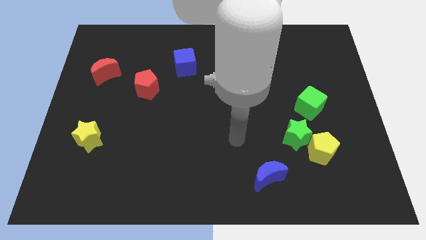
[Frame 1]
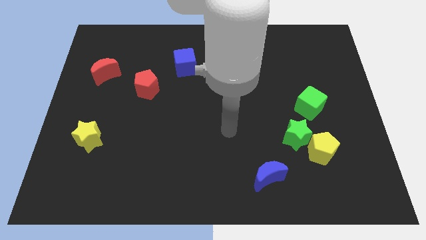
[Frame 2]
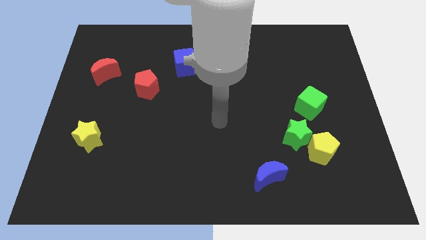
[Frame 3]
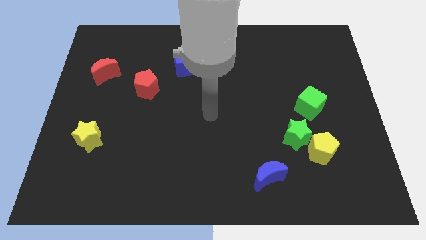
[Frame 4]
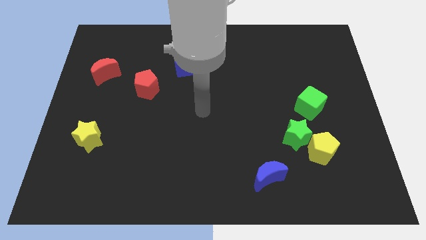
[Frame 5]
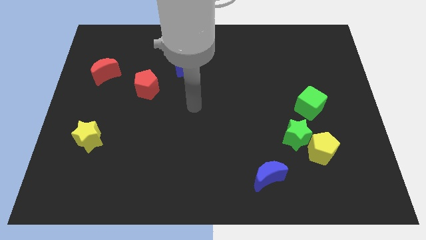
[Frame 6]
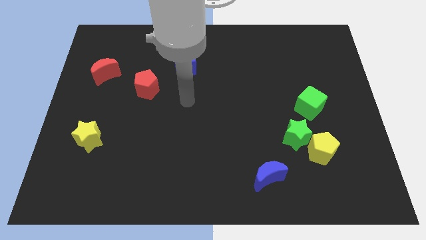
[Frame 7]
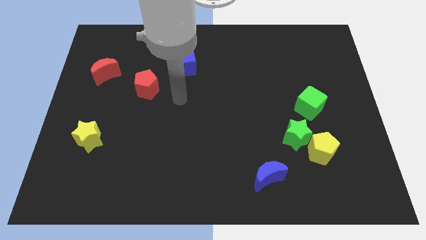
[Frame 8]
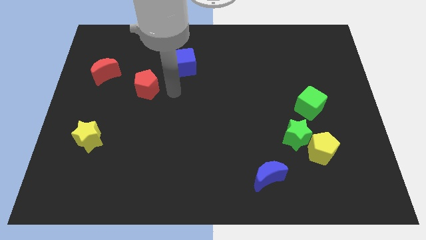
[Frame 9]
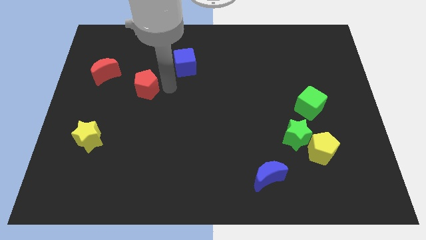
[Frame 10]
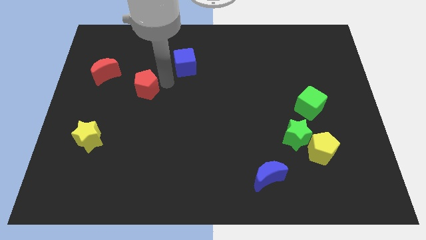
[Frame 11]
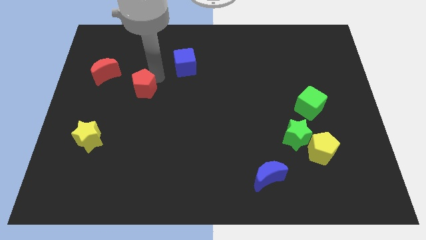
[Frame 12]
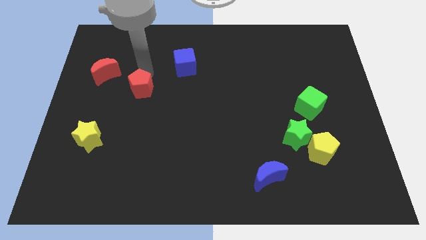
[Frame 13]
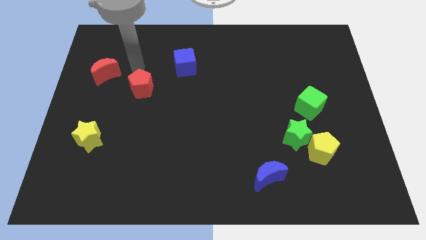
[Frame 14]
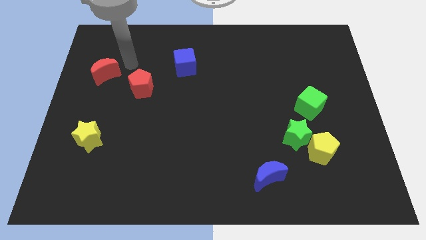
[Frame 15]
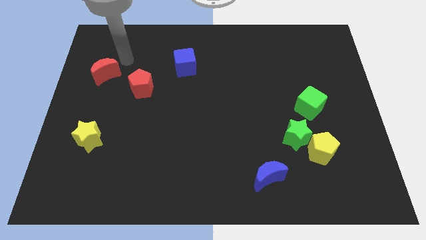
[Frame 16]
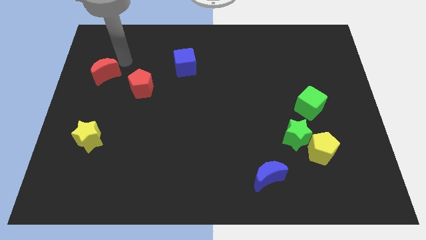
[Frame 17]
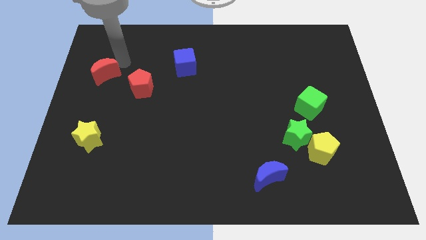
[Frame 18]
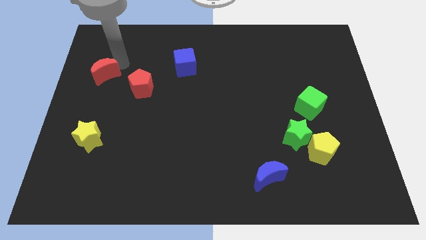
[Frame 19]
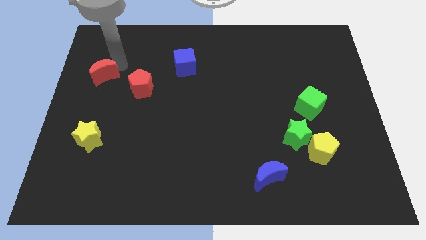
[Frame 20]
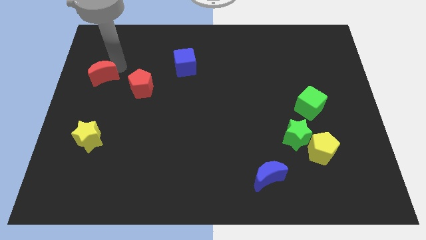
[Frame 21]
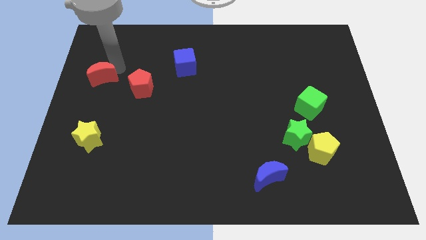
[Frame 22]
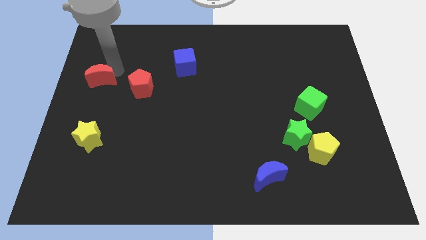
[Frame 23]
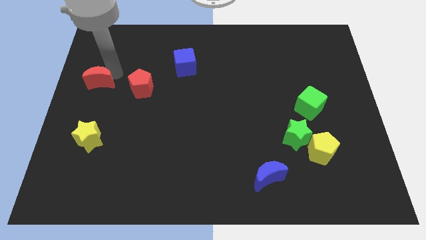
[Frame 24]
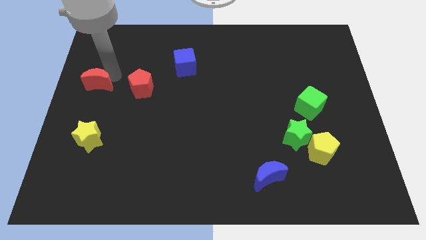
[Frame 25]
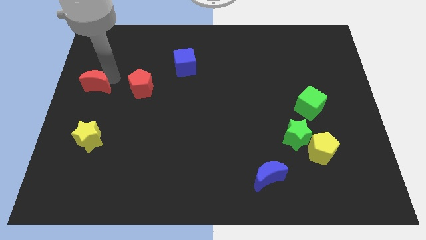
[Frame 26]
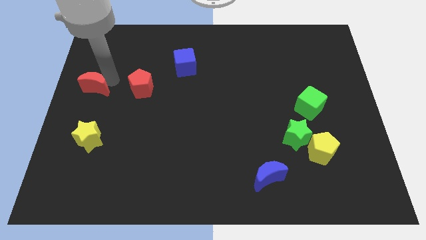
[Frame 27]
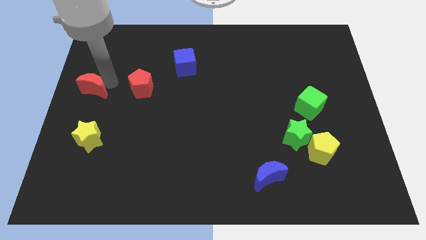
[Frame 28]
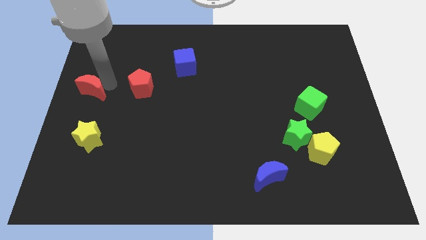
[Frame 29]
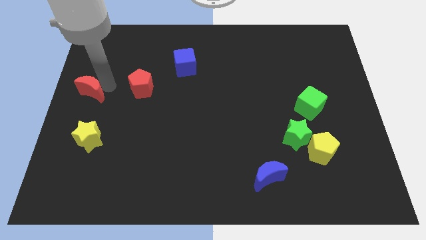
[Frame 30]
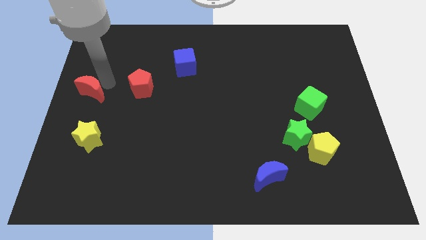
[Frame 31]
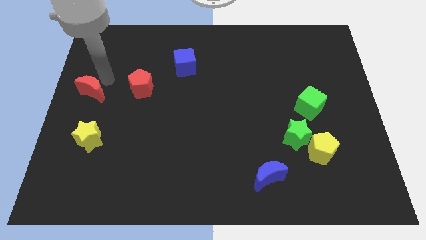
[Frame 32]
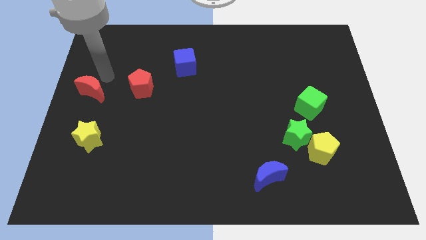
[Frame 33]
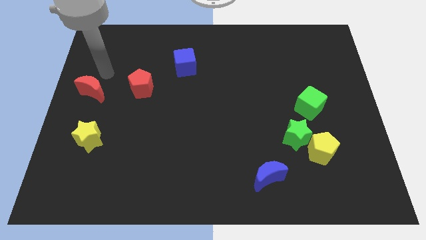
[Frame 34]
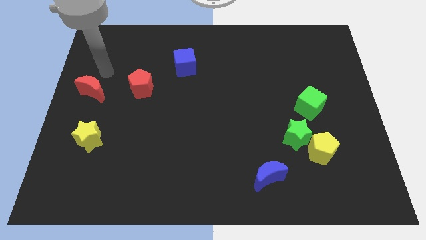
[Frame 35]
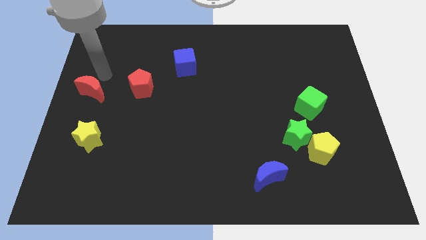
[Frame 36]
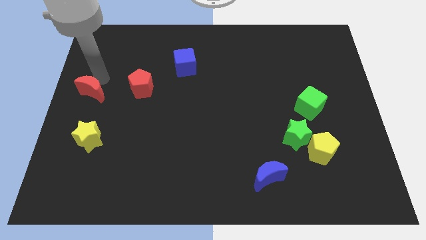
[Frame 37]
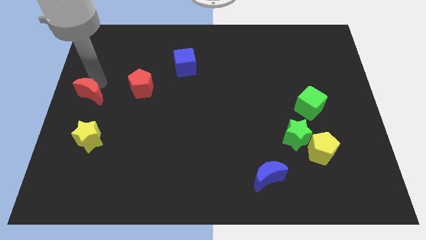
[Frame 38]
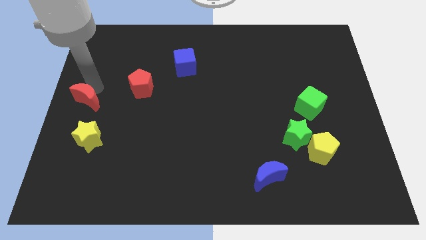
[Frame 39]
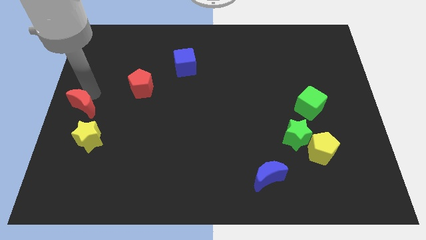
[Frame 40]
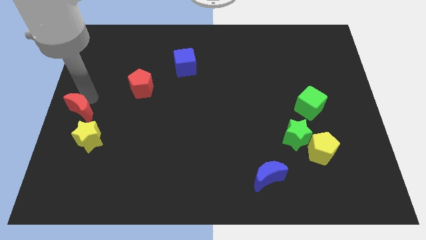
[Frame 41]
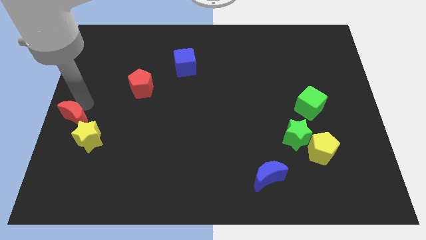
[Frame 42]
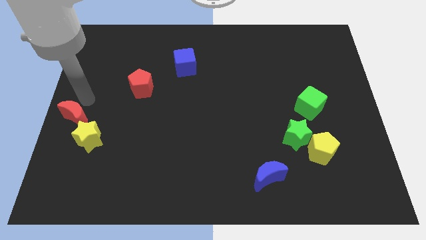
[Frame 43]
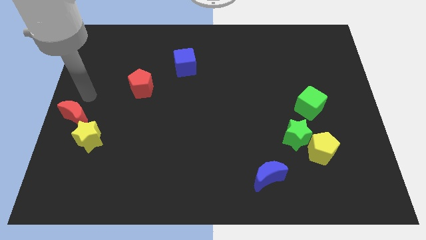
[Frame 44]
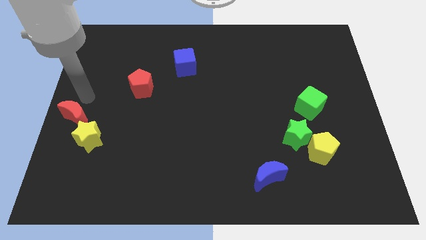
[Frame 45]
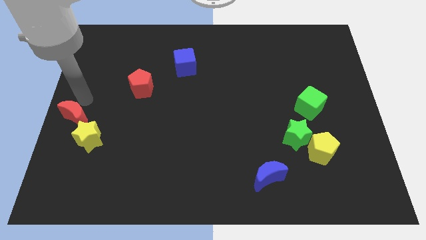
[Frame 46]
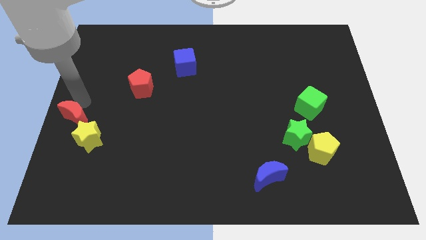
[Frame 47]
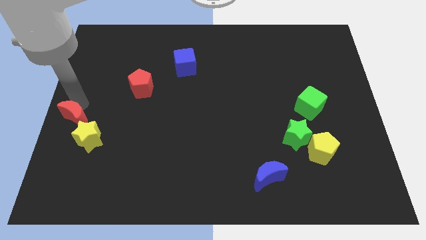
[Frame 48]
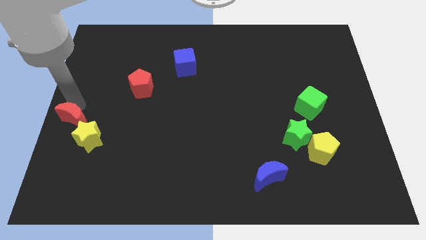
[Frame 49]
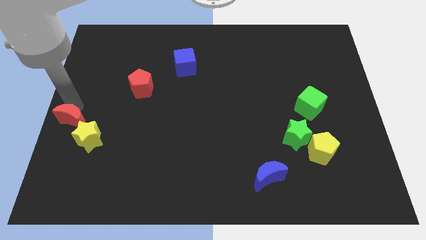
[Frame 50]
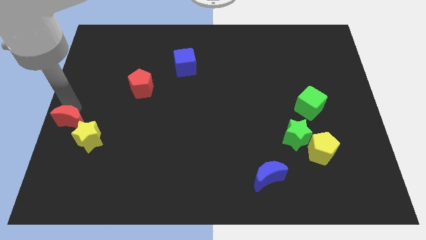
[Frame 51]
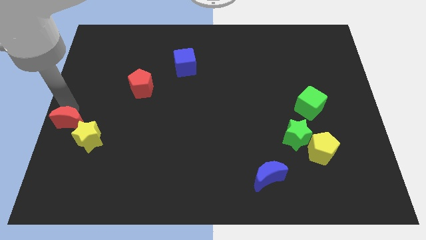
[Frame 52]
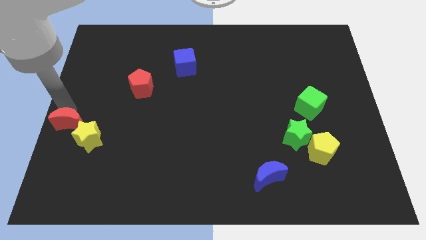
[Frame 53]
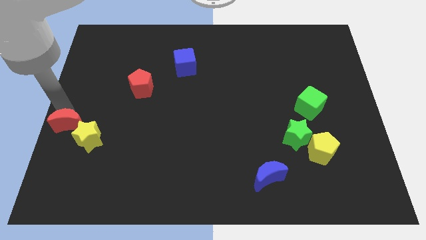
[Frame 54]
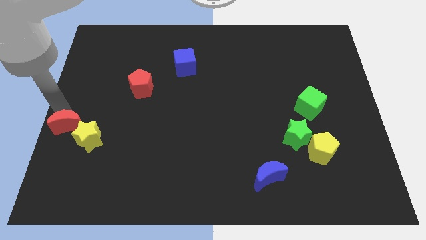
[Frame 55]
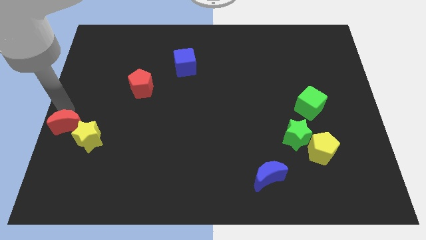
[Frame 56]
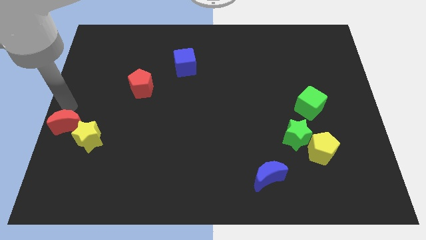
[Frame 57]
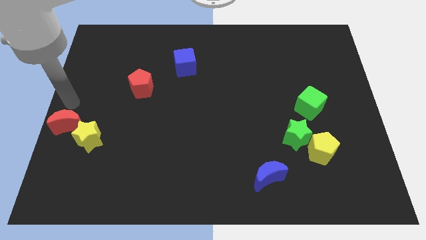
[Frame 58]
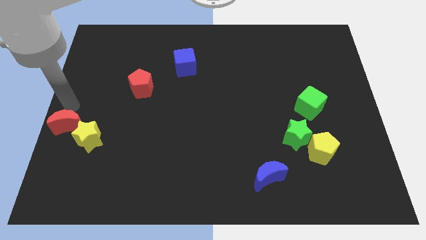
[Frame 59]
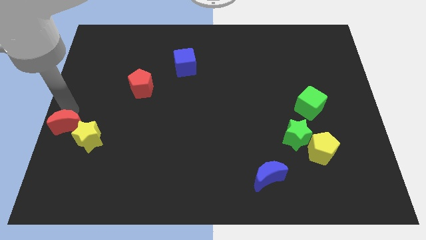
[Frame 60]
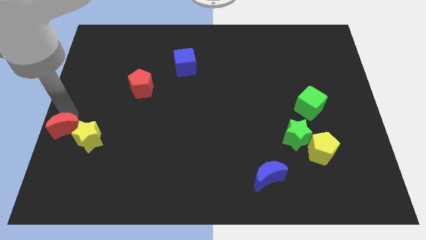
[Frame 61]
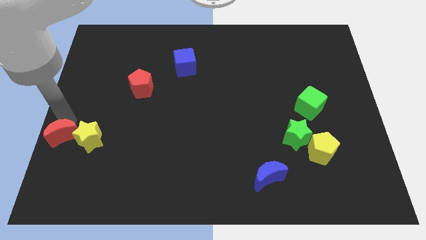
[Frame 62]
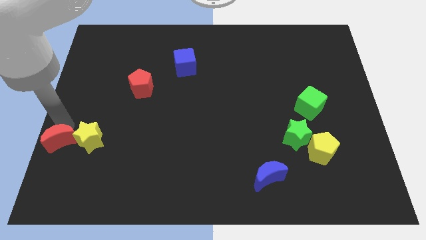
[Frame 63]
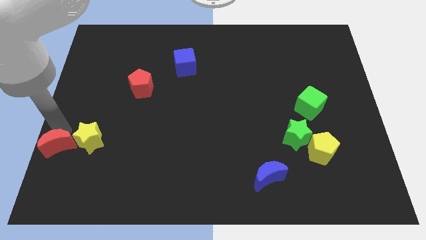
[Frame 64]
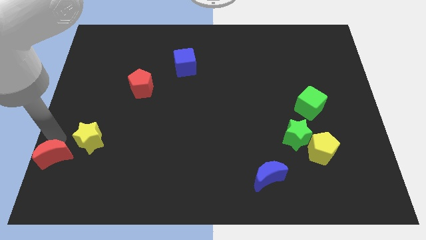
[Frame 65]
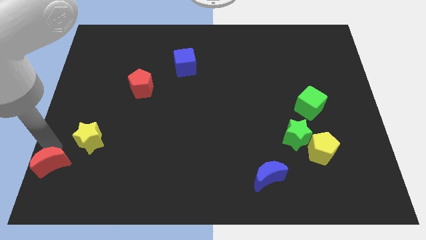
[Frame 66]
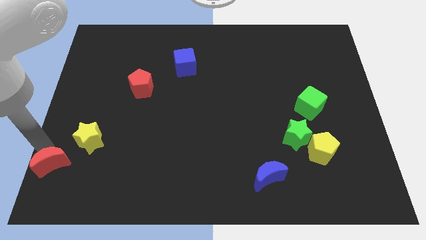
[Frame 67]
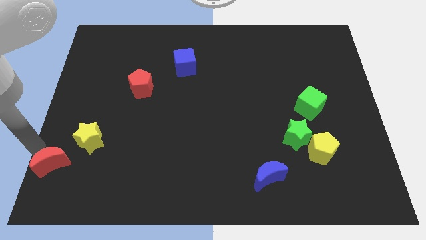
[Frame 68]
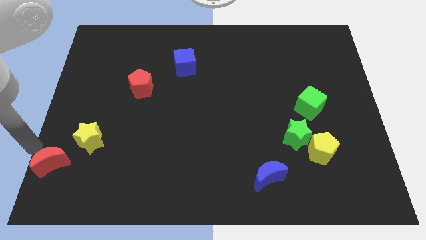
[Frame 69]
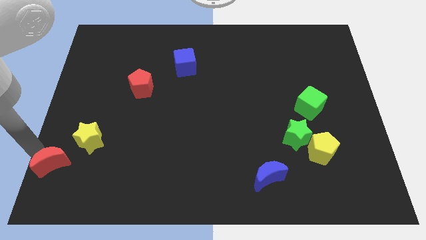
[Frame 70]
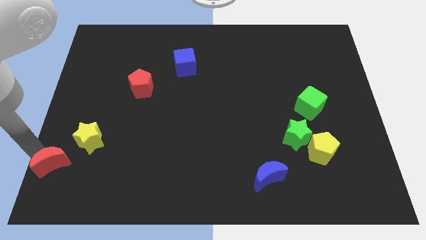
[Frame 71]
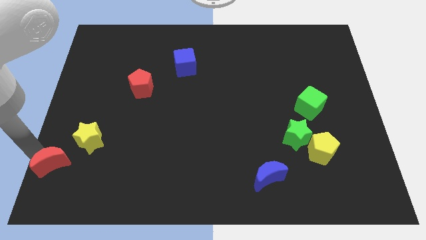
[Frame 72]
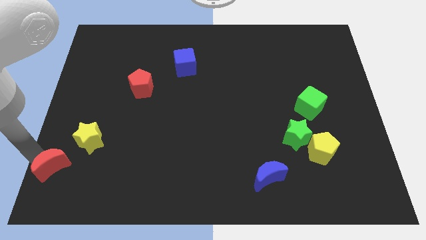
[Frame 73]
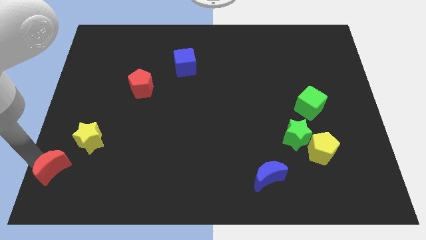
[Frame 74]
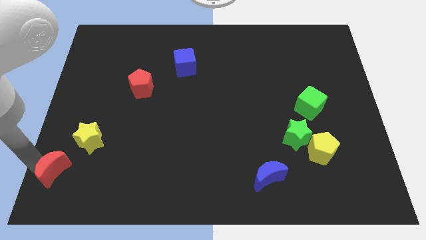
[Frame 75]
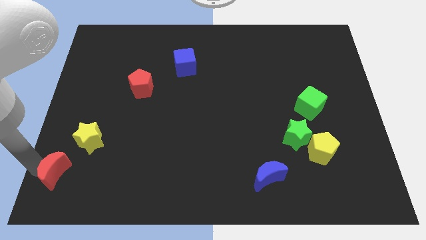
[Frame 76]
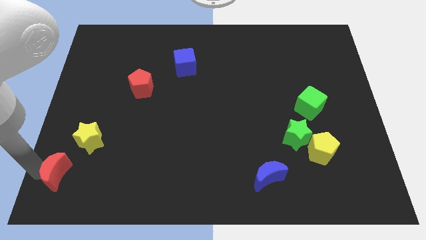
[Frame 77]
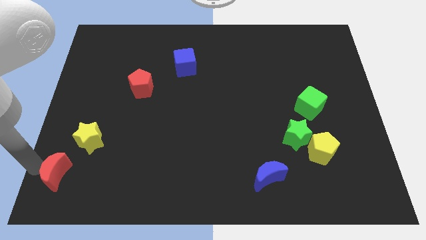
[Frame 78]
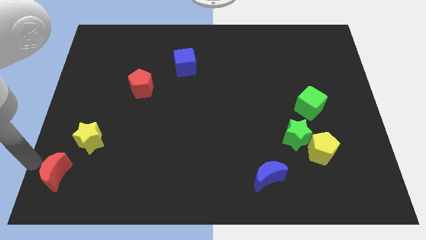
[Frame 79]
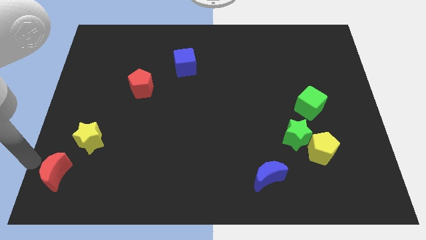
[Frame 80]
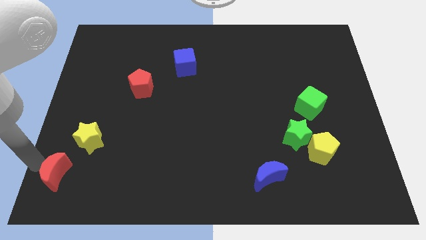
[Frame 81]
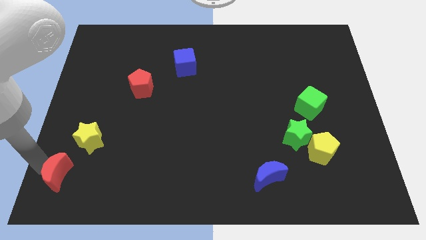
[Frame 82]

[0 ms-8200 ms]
slide the red moon below the yellow star
